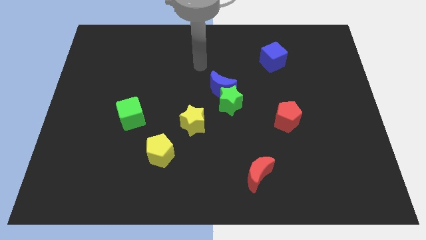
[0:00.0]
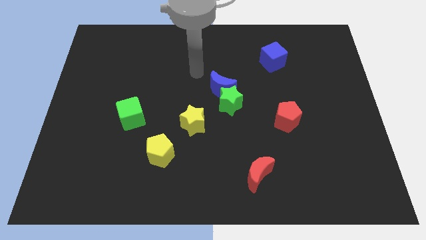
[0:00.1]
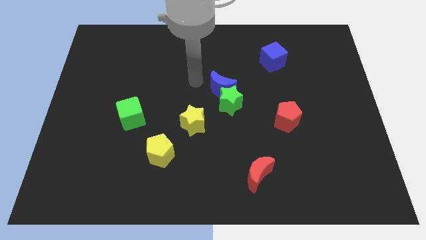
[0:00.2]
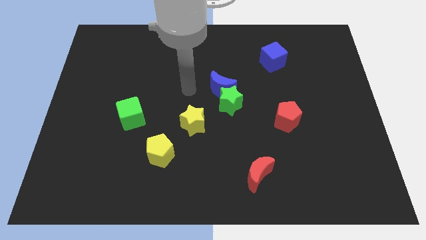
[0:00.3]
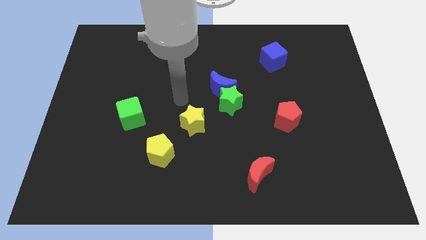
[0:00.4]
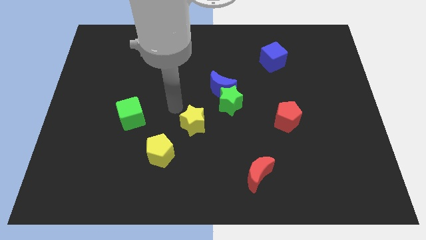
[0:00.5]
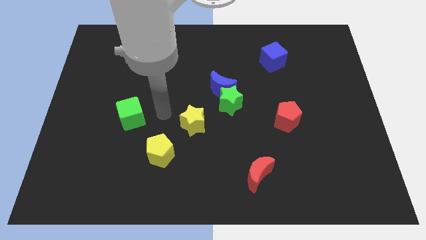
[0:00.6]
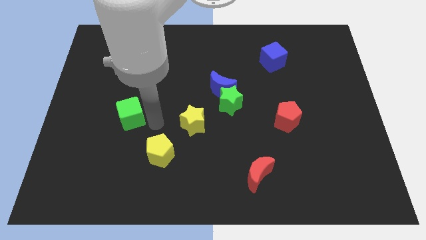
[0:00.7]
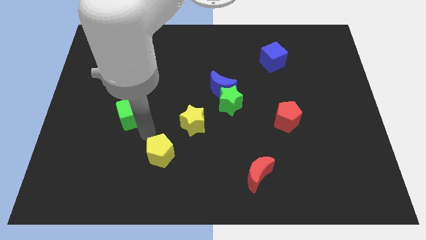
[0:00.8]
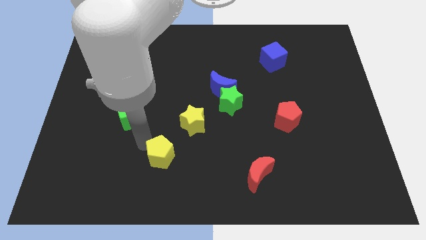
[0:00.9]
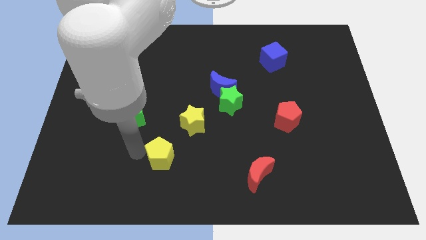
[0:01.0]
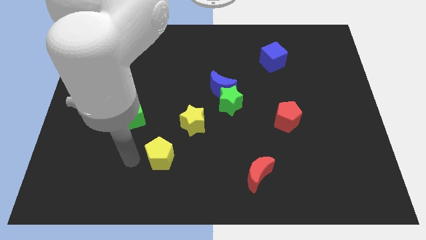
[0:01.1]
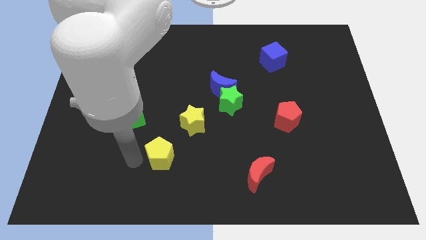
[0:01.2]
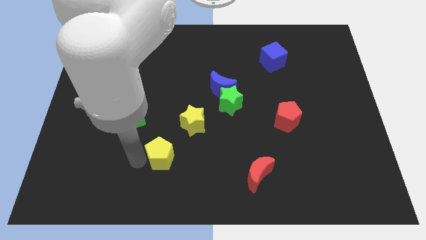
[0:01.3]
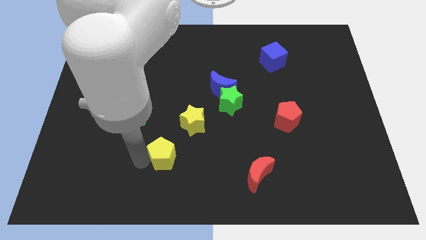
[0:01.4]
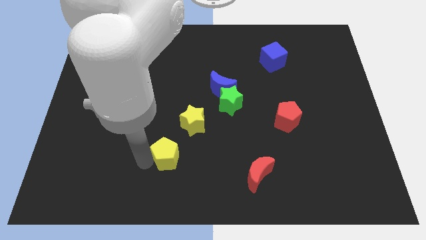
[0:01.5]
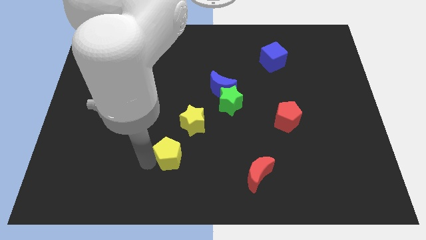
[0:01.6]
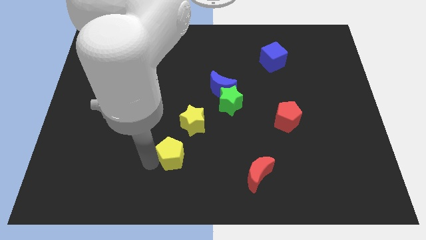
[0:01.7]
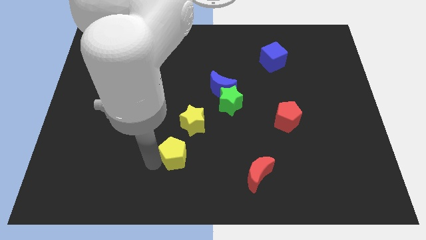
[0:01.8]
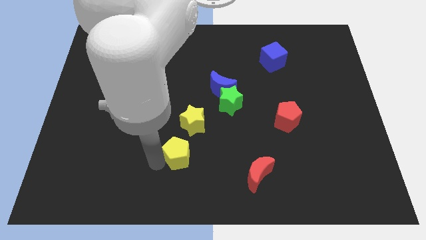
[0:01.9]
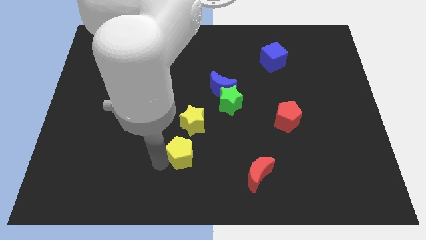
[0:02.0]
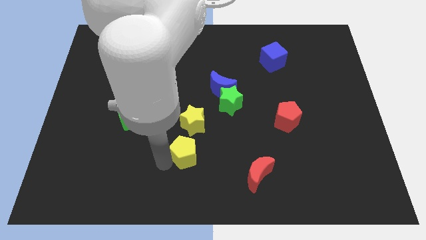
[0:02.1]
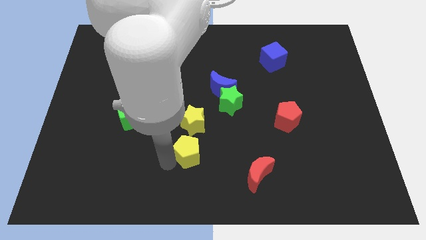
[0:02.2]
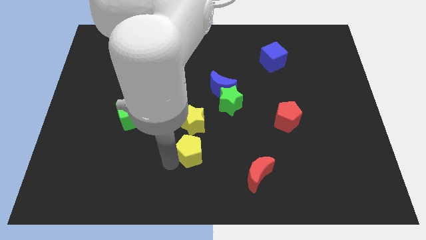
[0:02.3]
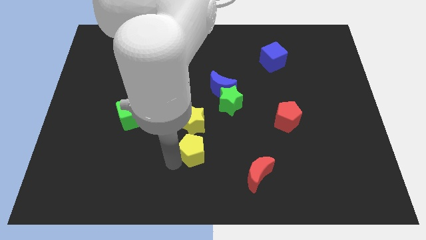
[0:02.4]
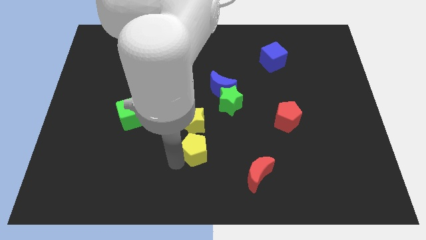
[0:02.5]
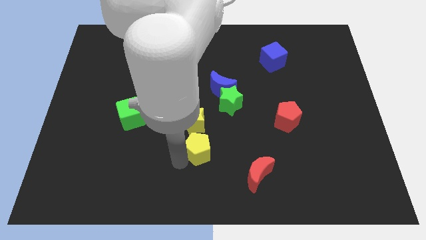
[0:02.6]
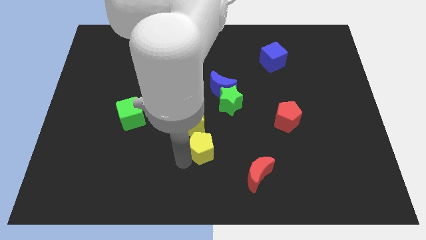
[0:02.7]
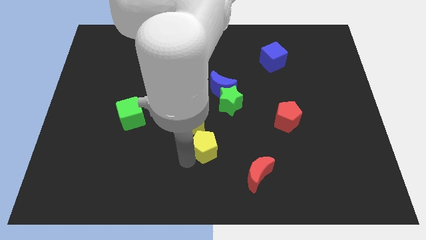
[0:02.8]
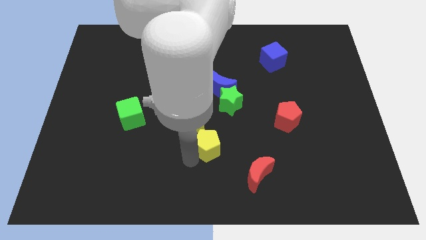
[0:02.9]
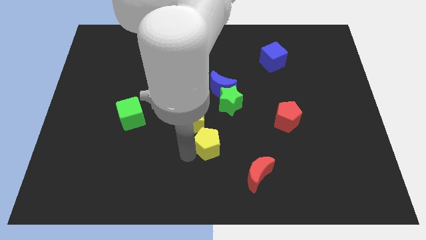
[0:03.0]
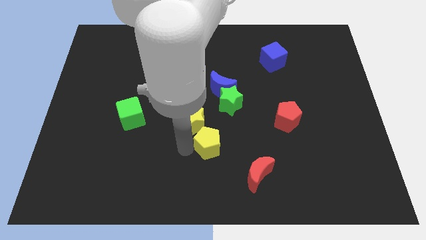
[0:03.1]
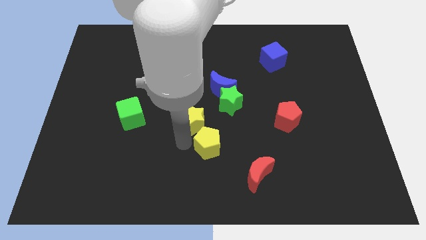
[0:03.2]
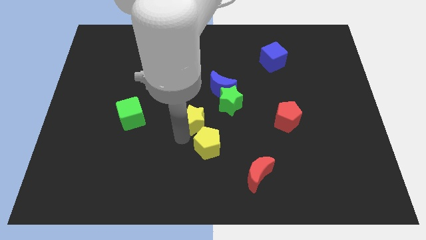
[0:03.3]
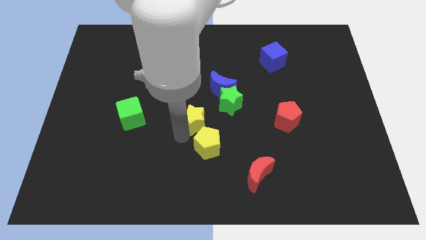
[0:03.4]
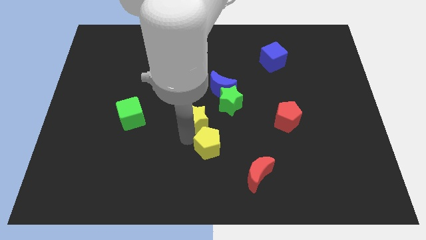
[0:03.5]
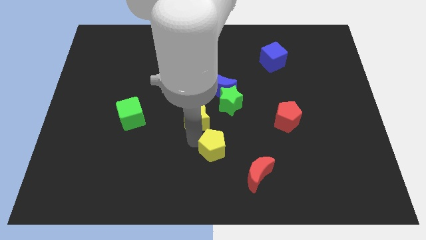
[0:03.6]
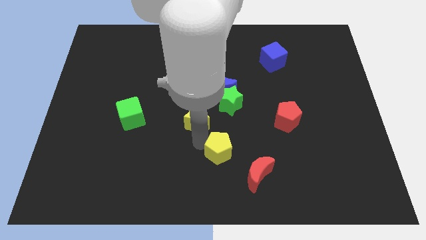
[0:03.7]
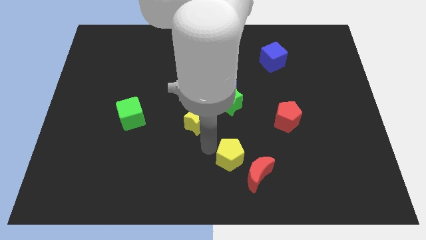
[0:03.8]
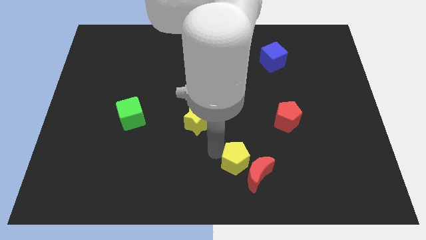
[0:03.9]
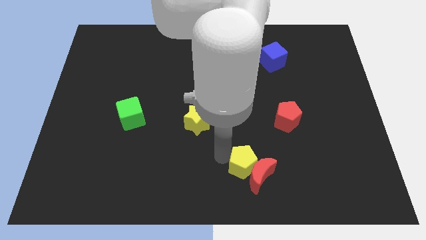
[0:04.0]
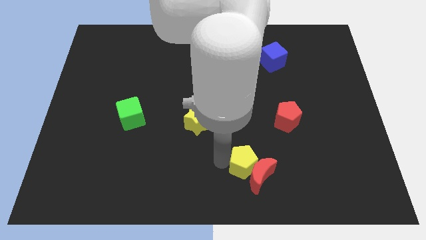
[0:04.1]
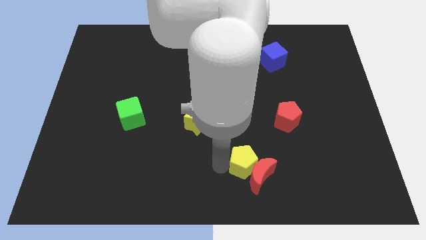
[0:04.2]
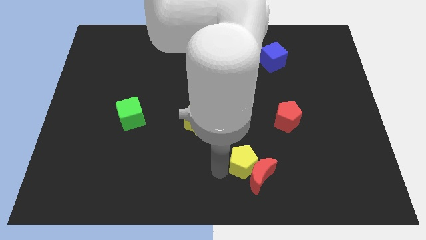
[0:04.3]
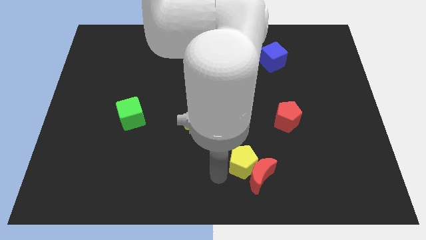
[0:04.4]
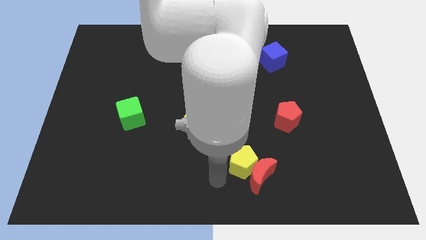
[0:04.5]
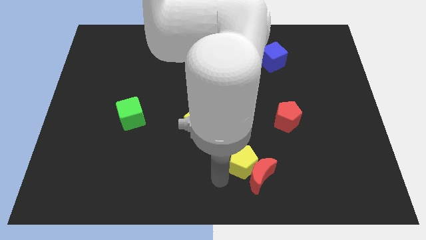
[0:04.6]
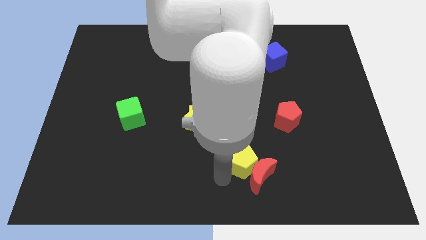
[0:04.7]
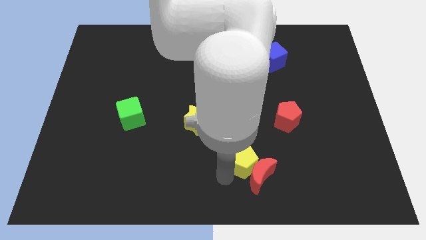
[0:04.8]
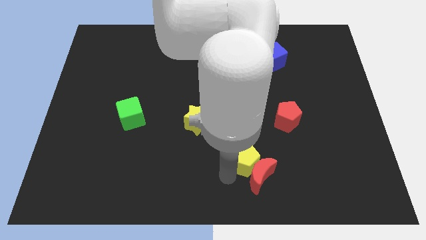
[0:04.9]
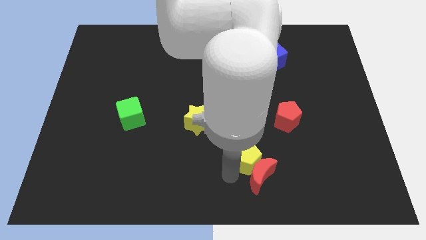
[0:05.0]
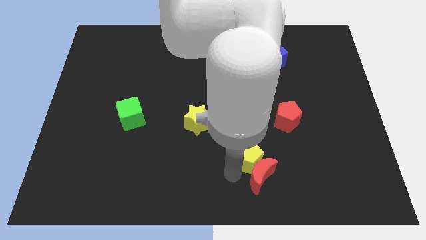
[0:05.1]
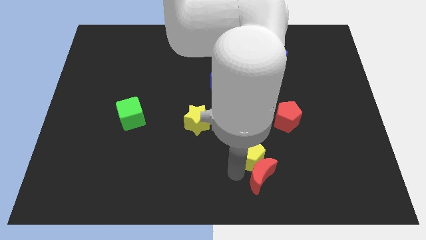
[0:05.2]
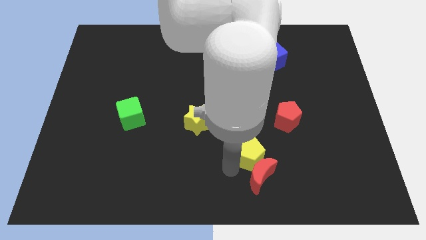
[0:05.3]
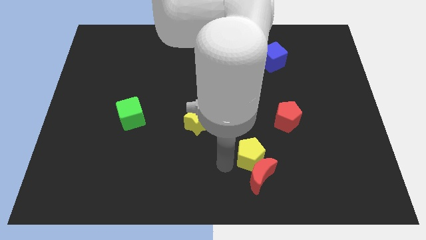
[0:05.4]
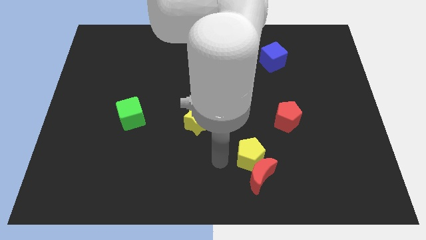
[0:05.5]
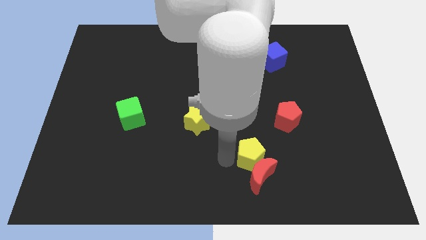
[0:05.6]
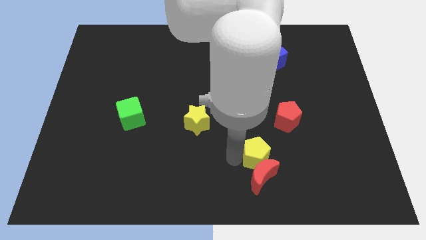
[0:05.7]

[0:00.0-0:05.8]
slide the yellow pentagon right

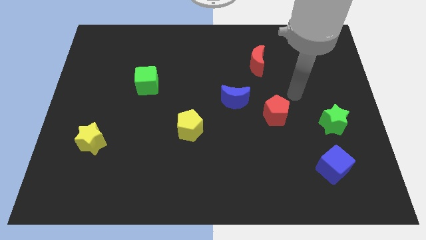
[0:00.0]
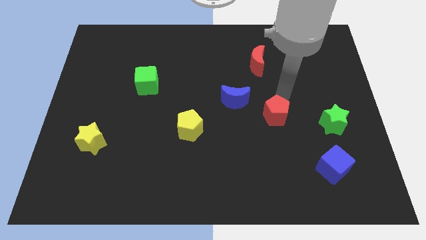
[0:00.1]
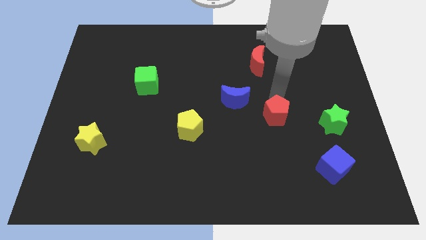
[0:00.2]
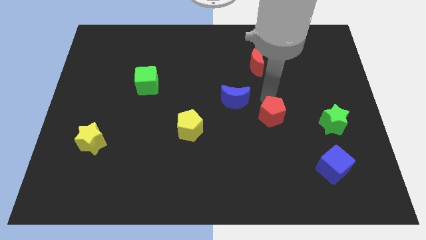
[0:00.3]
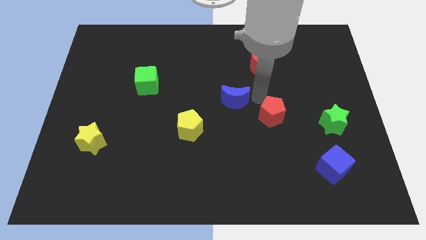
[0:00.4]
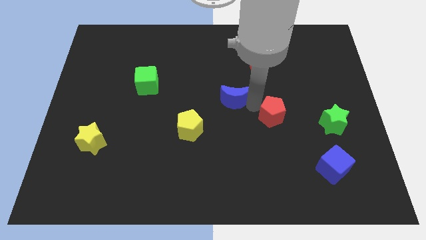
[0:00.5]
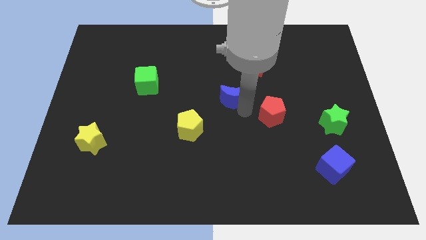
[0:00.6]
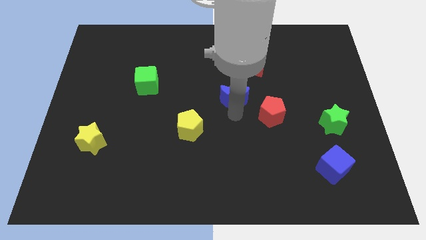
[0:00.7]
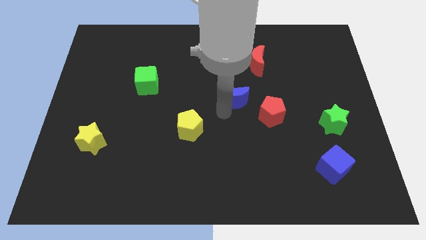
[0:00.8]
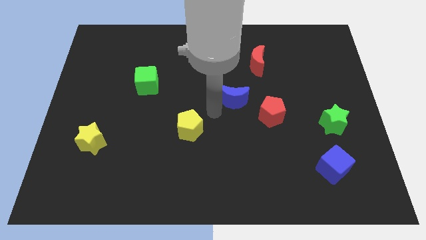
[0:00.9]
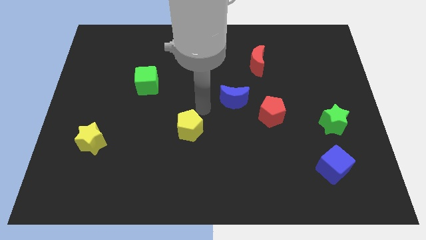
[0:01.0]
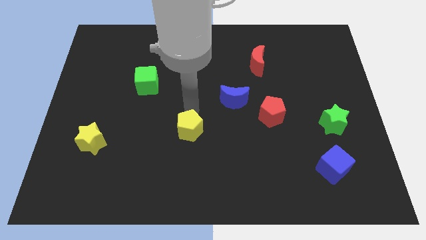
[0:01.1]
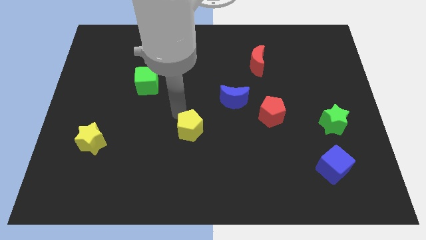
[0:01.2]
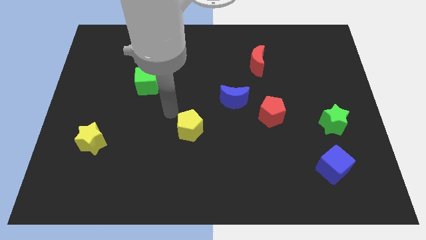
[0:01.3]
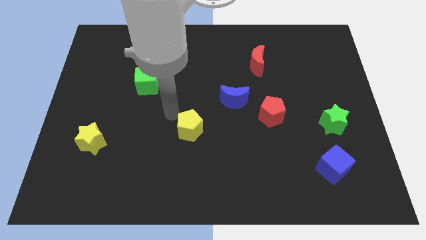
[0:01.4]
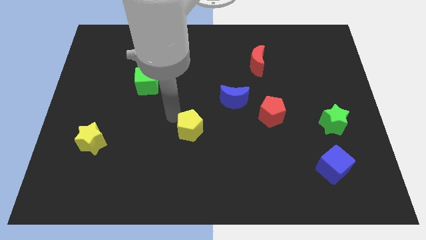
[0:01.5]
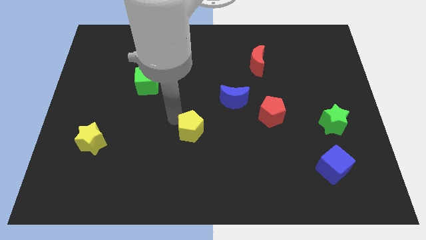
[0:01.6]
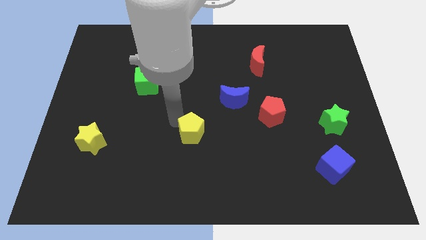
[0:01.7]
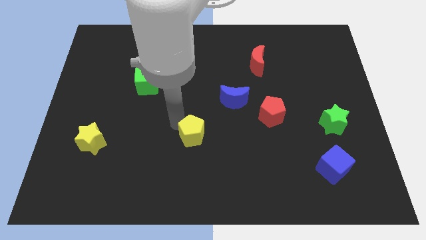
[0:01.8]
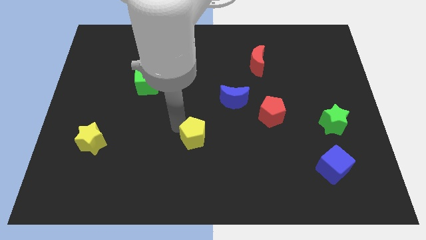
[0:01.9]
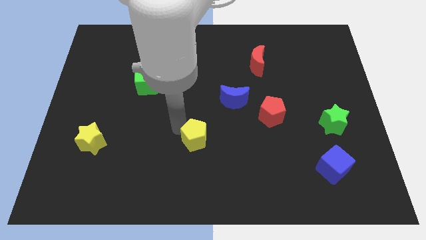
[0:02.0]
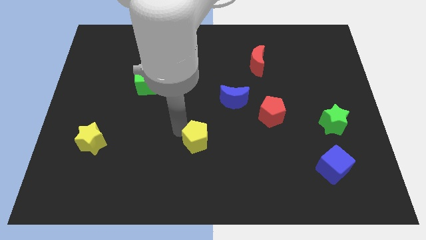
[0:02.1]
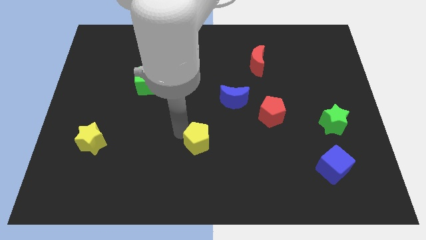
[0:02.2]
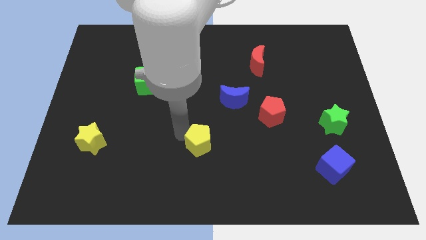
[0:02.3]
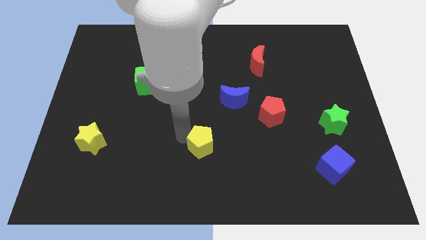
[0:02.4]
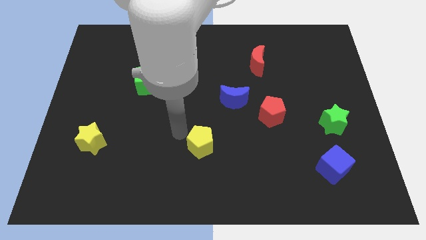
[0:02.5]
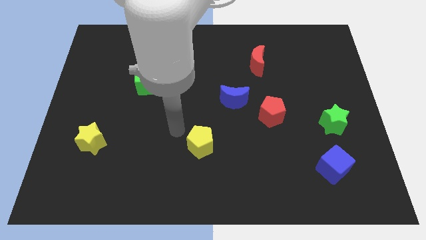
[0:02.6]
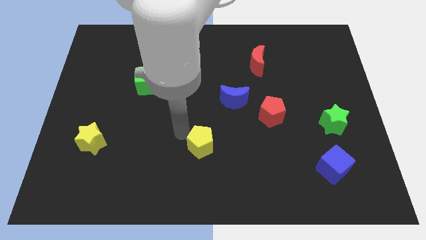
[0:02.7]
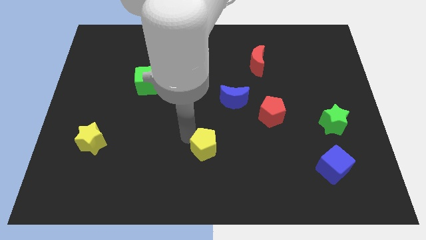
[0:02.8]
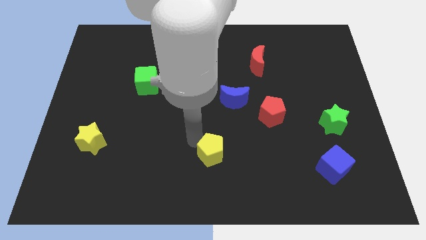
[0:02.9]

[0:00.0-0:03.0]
push the yellow pentagon somewhat diagonally downwards and to the right
